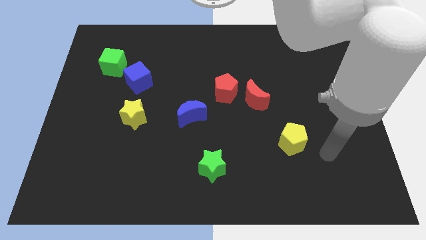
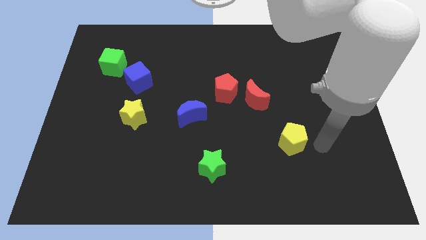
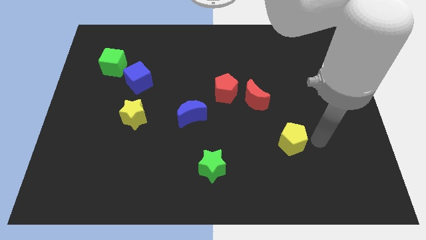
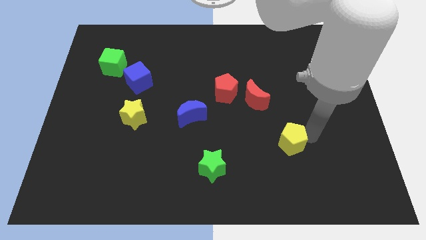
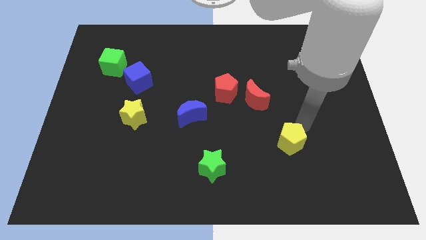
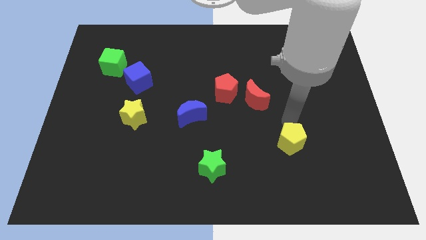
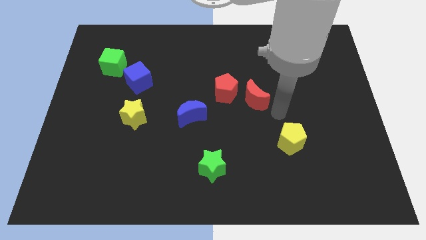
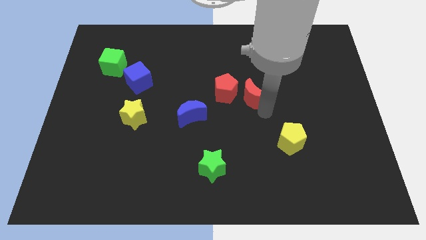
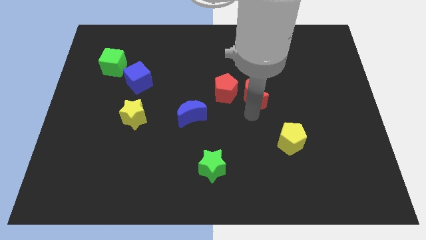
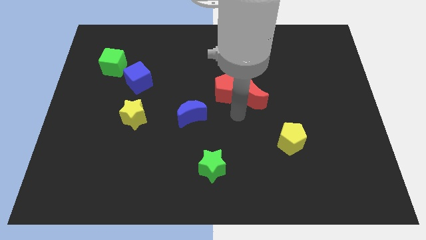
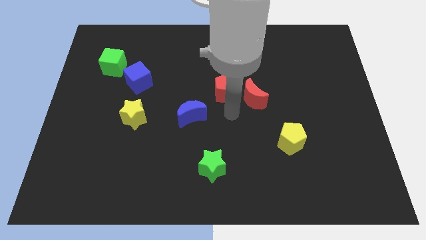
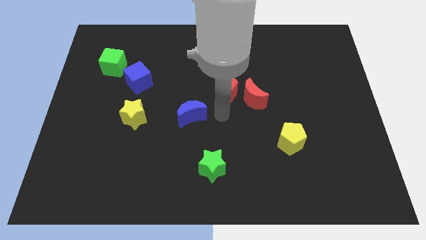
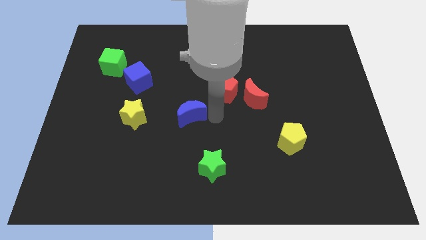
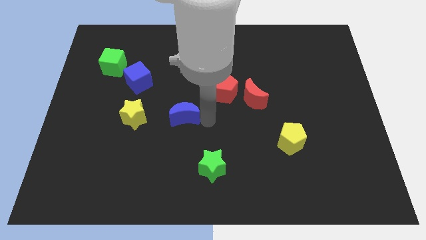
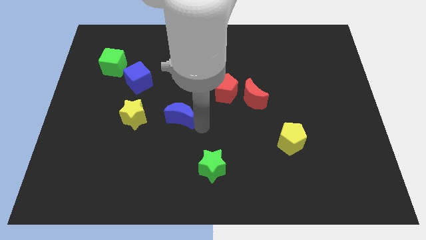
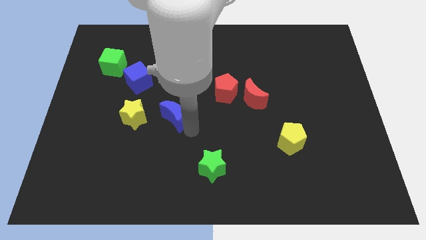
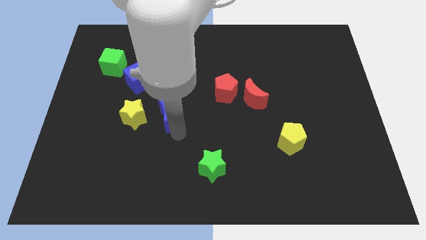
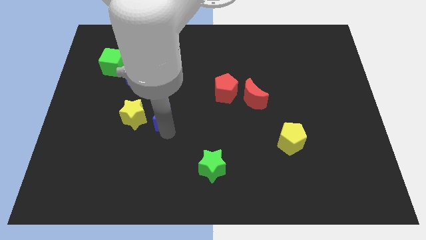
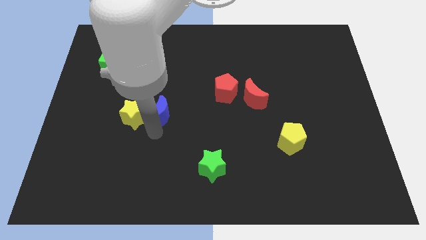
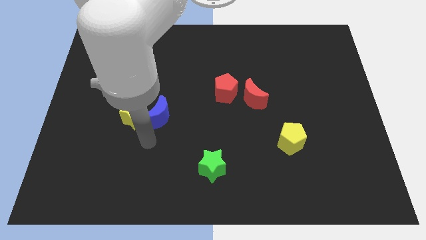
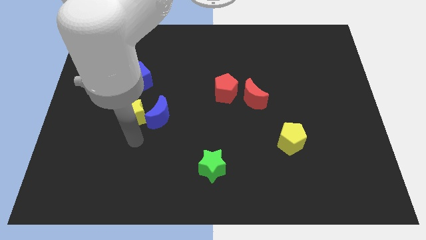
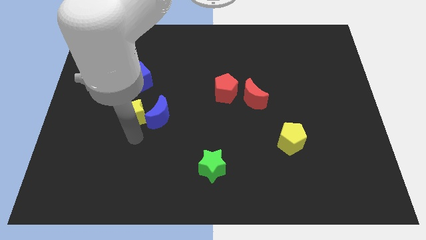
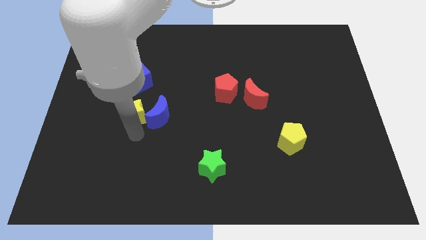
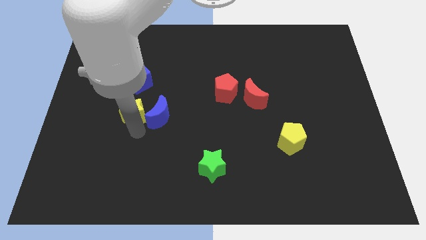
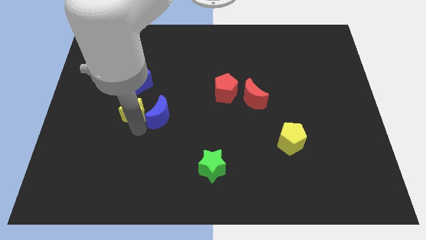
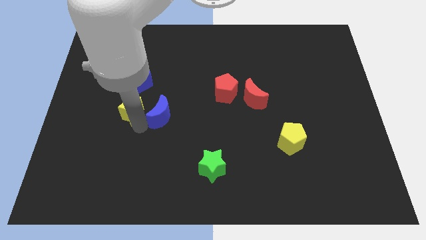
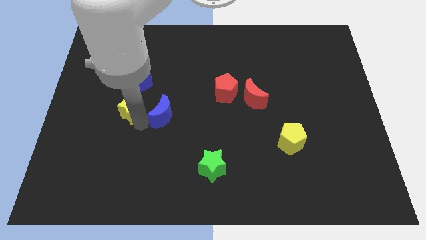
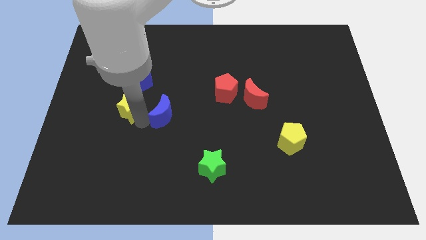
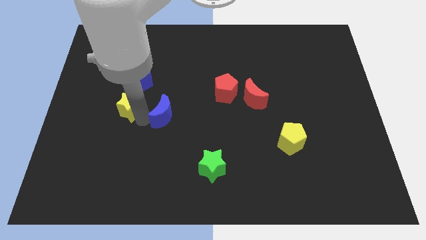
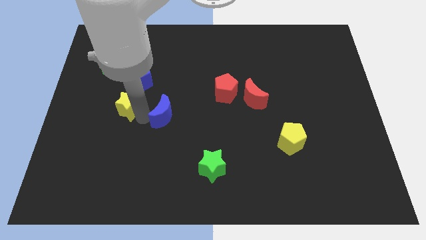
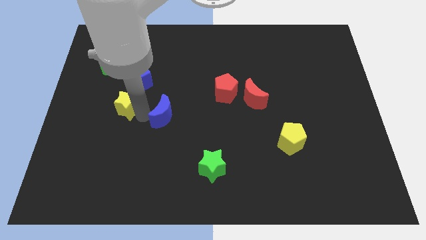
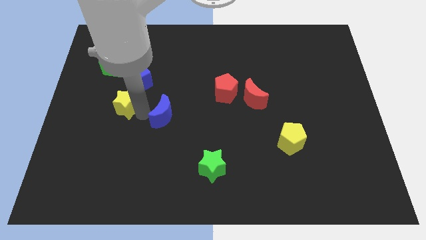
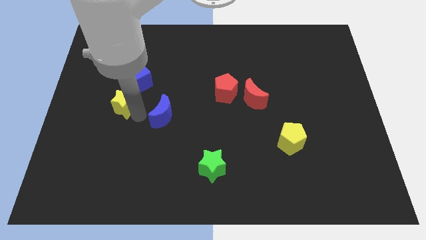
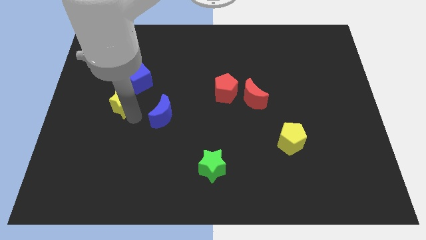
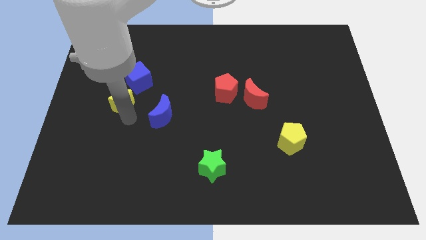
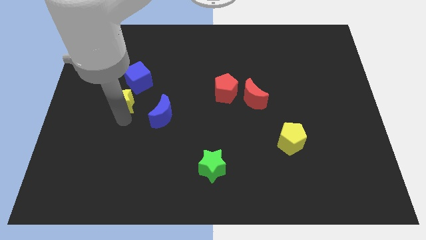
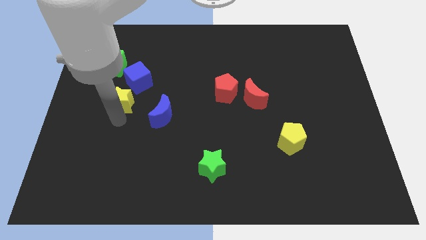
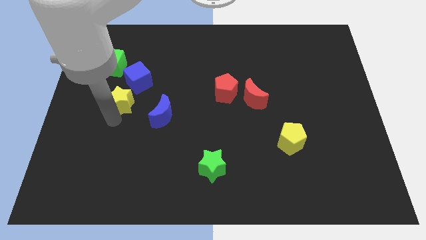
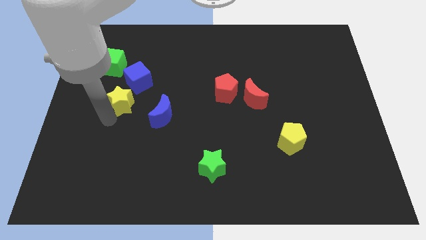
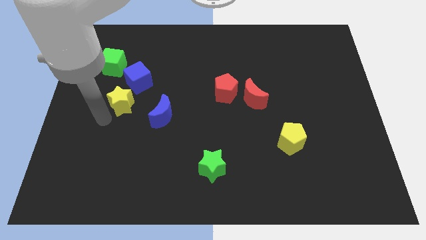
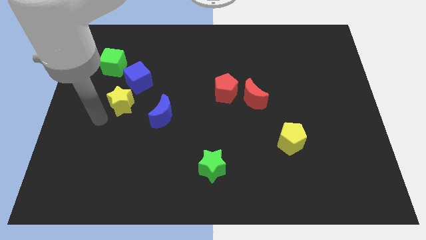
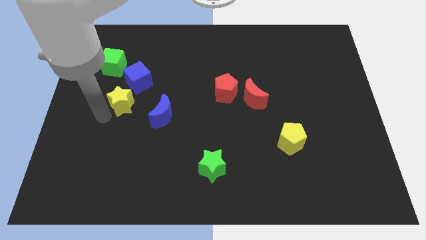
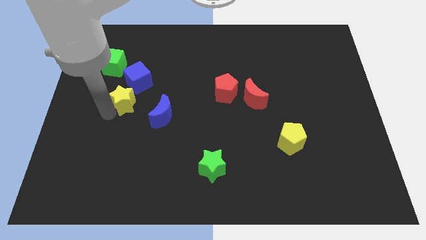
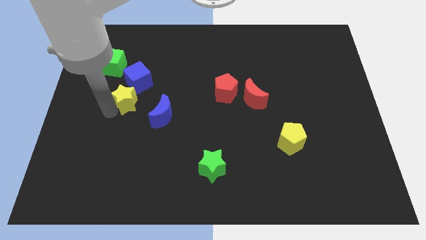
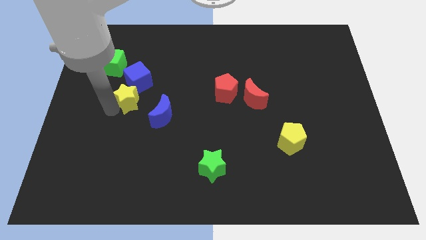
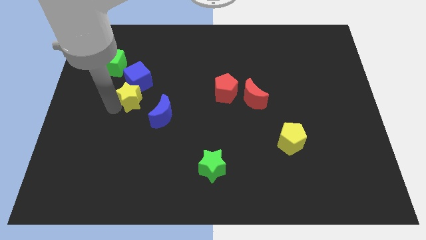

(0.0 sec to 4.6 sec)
put the yellow star close to the blue cube

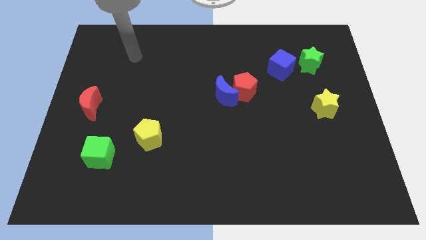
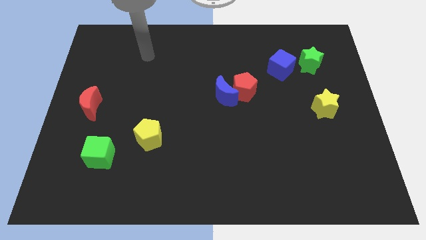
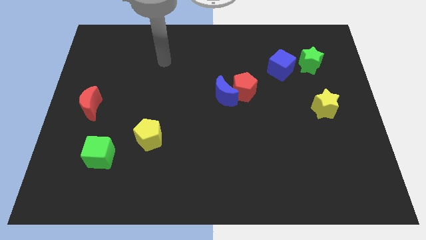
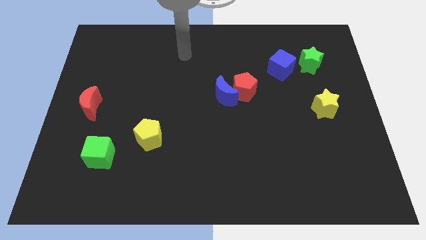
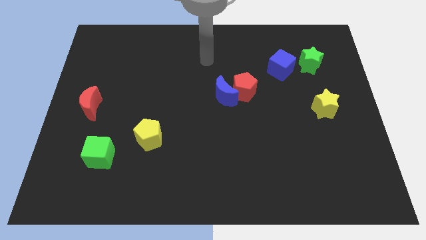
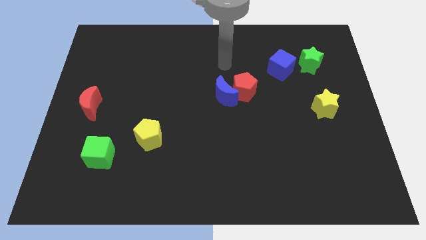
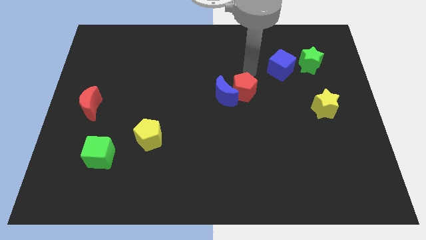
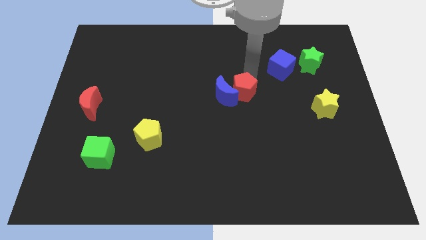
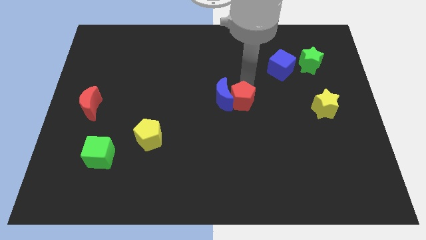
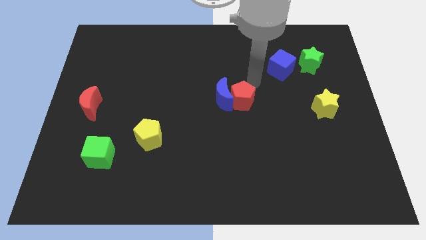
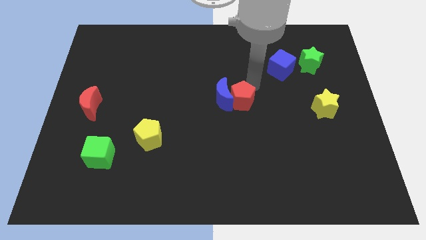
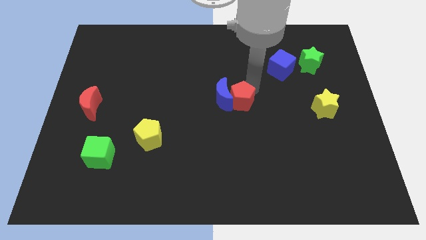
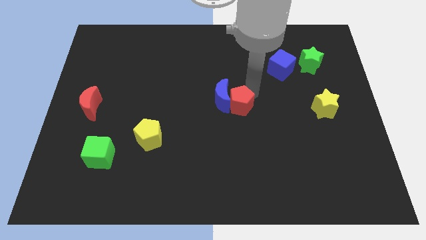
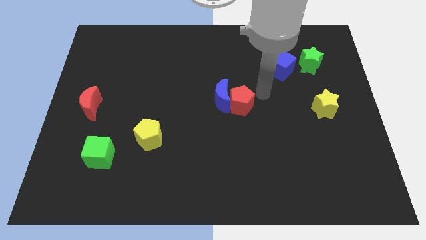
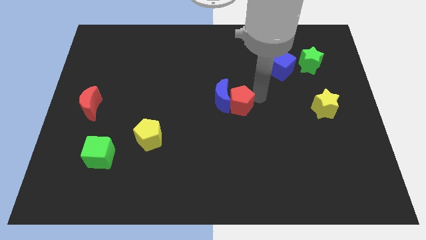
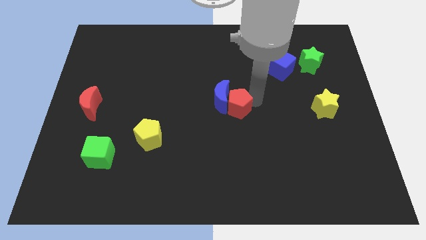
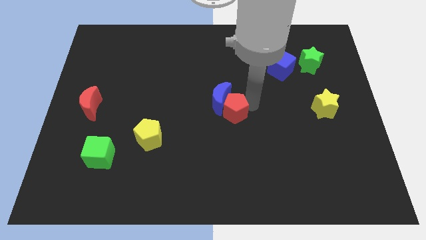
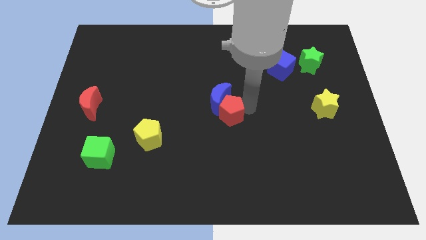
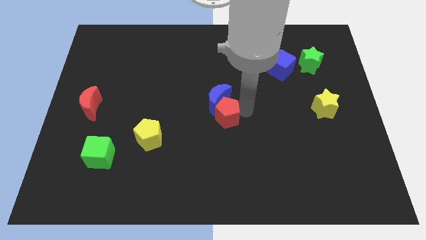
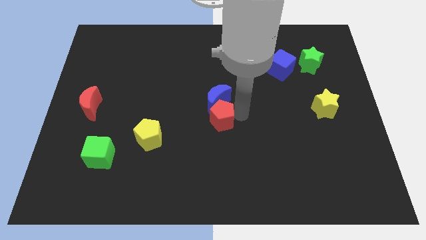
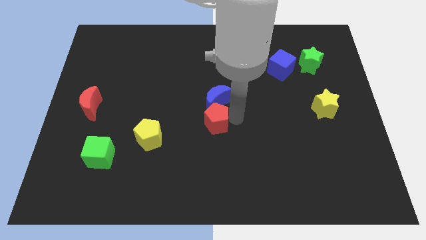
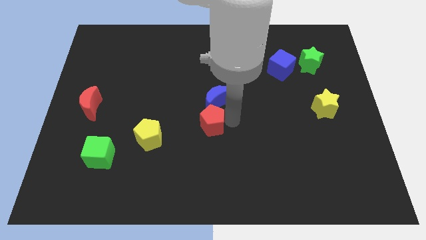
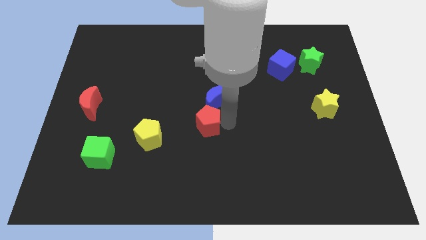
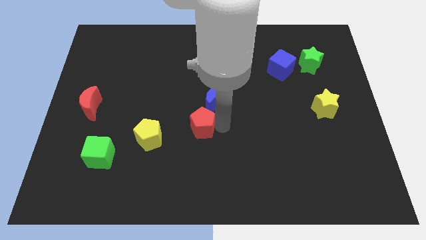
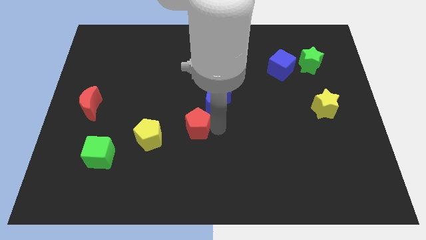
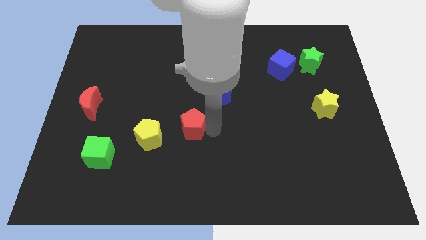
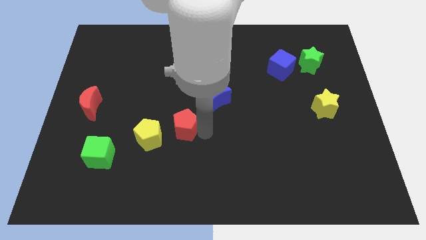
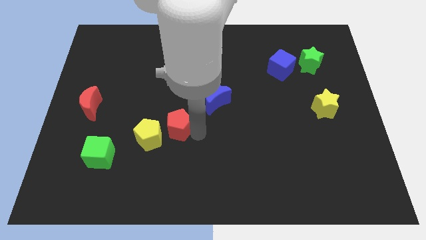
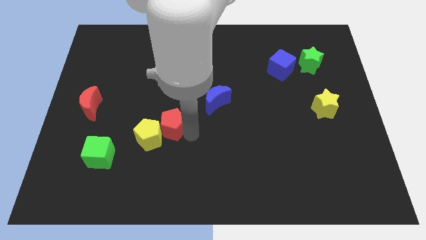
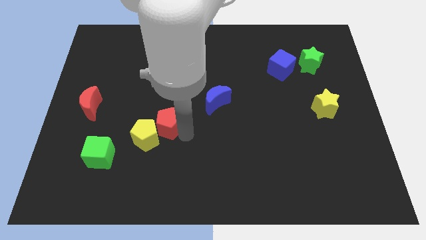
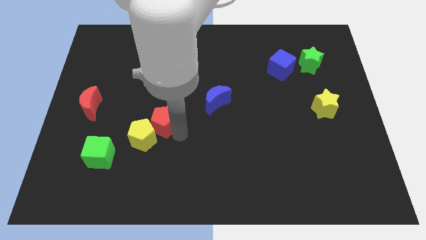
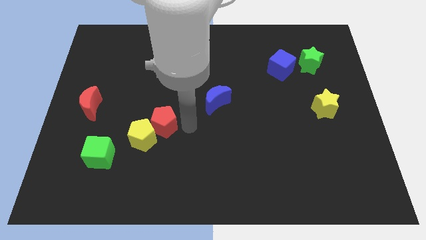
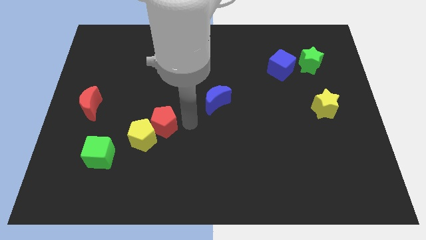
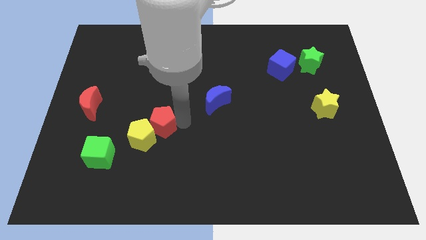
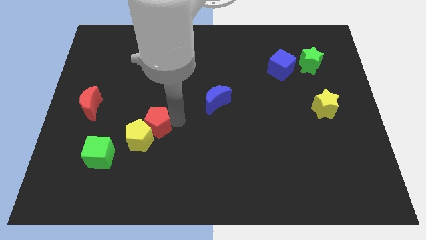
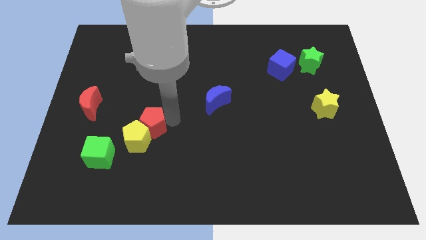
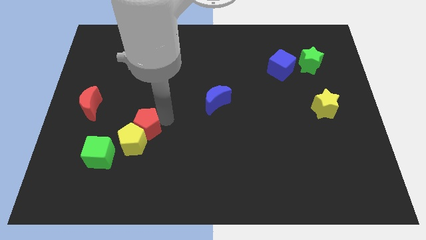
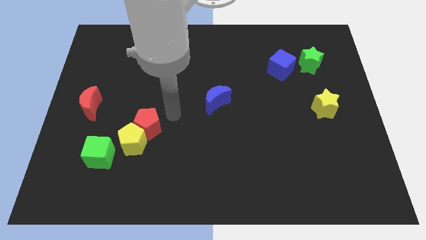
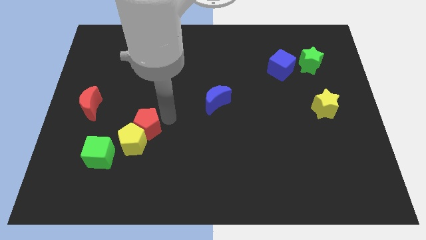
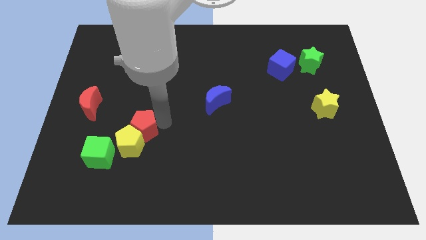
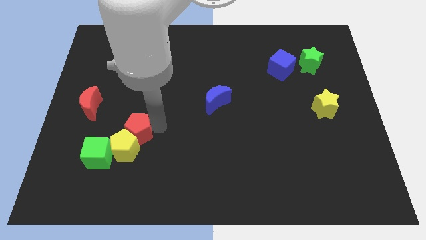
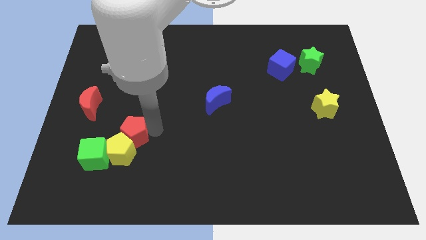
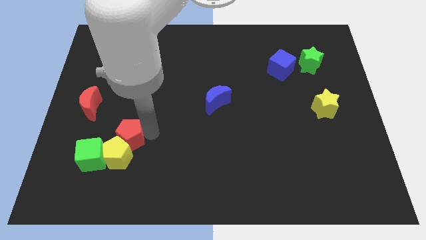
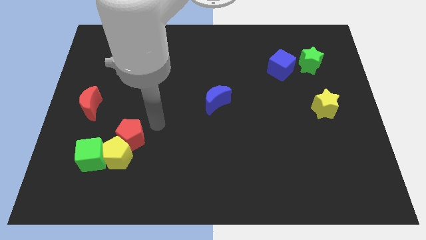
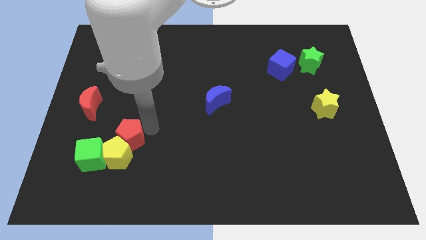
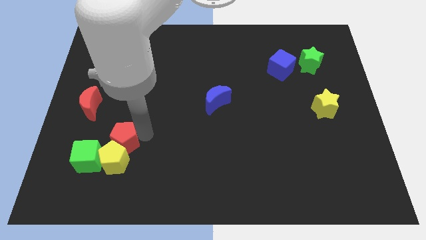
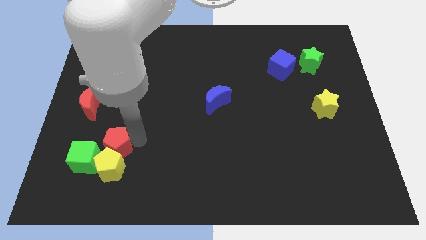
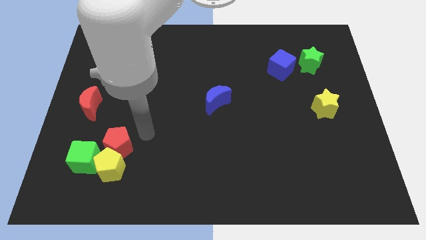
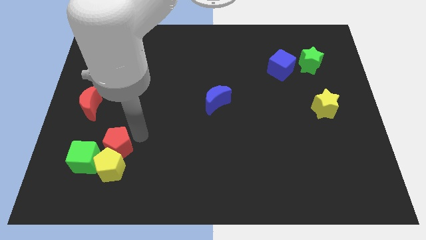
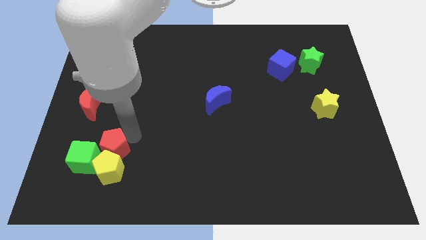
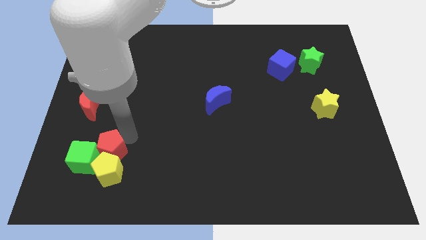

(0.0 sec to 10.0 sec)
put the red pentagon to the green cube
